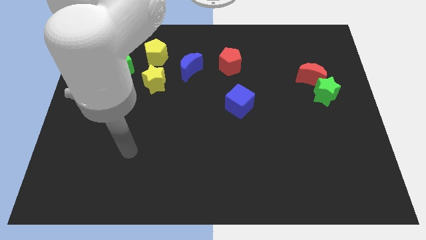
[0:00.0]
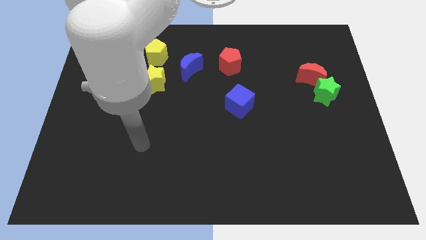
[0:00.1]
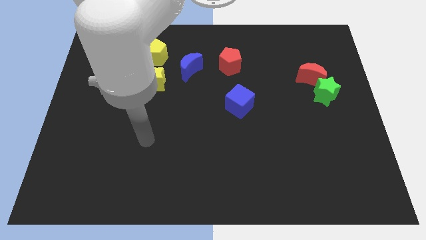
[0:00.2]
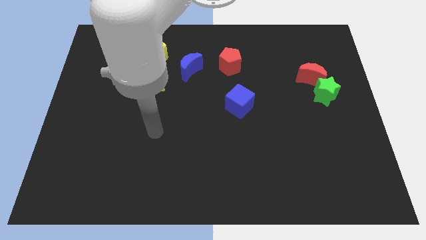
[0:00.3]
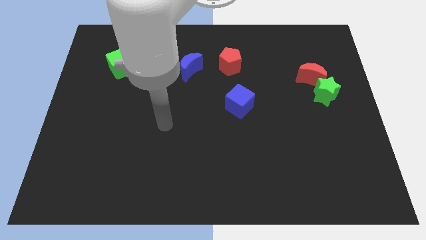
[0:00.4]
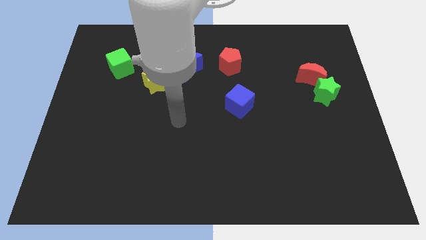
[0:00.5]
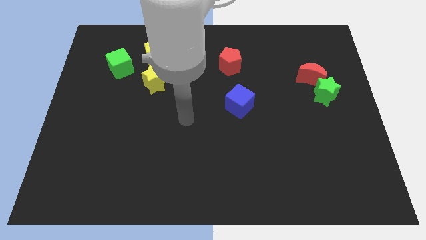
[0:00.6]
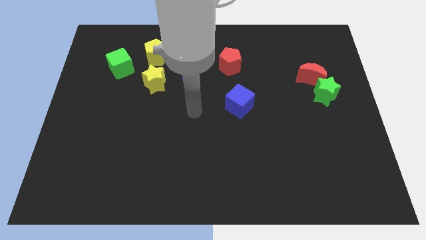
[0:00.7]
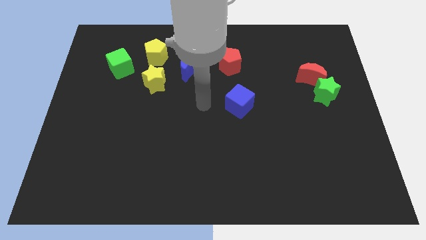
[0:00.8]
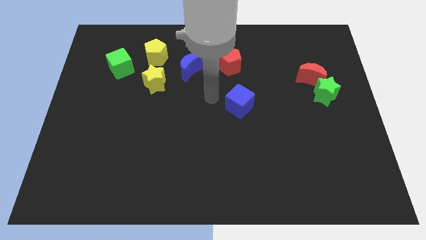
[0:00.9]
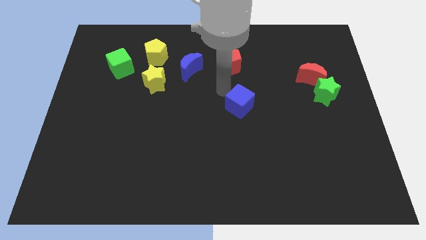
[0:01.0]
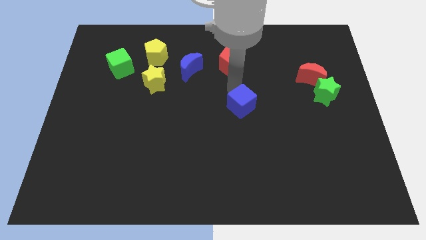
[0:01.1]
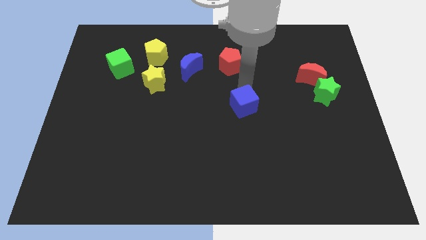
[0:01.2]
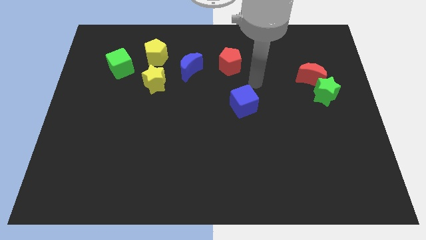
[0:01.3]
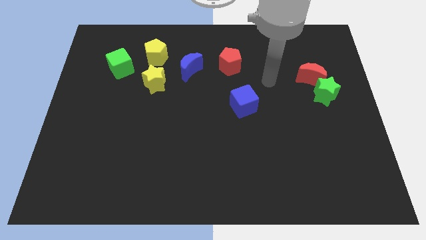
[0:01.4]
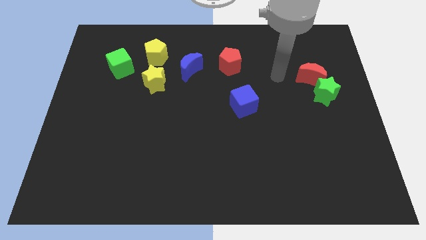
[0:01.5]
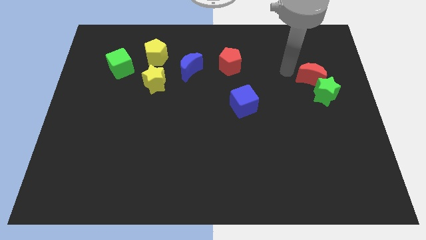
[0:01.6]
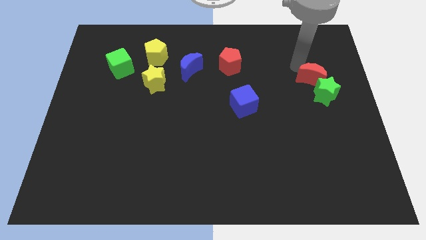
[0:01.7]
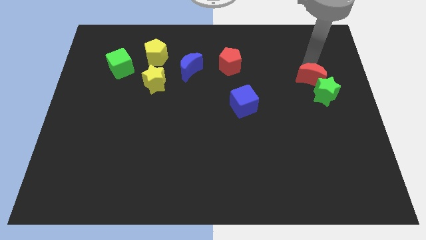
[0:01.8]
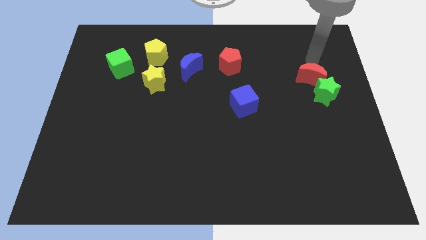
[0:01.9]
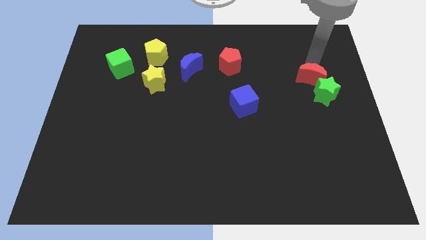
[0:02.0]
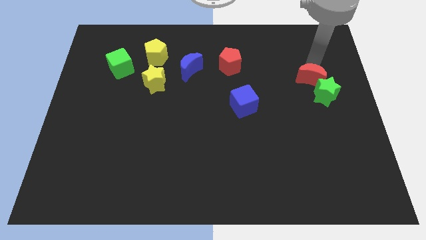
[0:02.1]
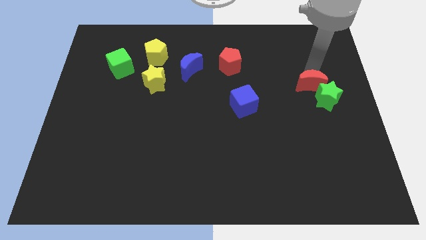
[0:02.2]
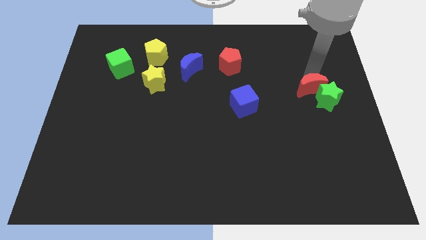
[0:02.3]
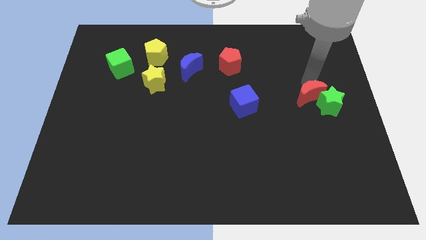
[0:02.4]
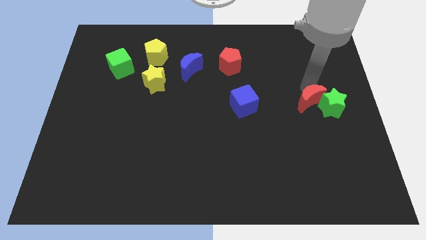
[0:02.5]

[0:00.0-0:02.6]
push the red moon somewhat downwards

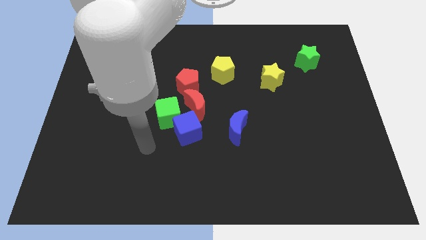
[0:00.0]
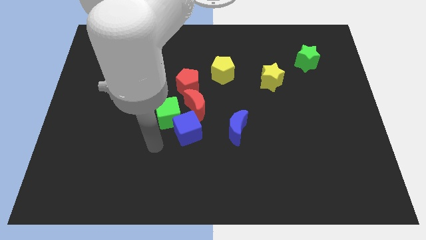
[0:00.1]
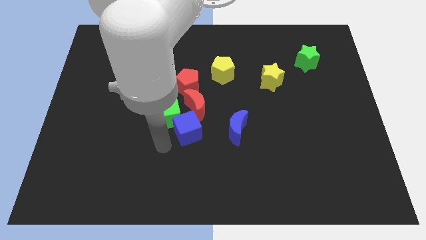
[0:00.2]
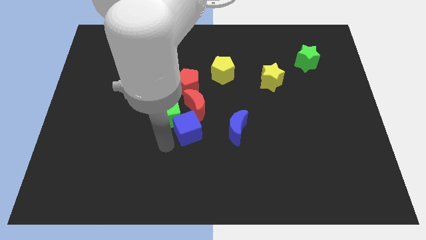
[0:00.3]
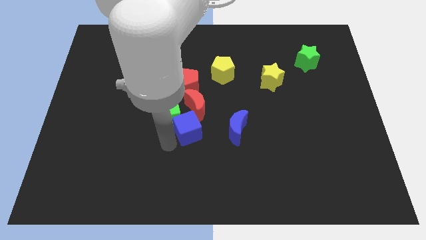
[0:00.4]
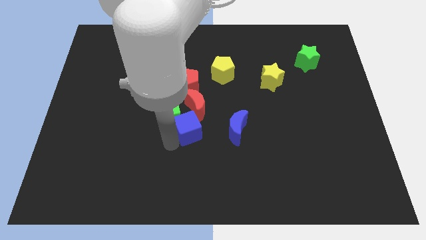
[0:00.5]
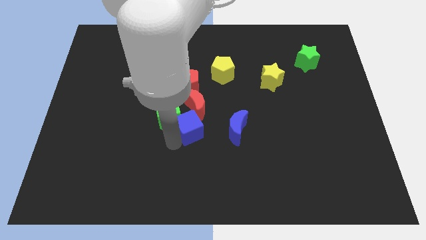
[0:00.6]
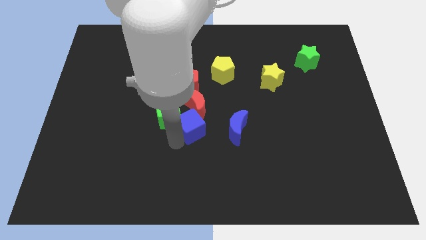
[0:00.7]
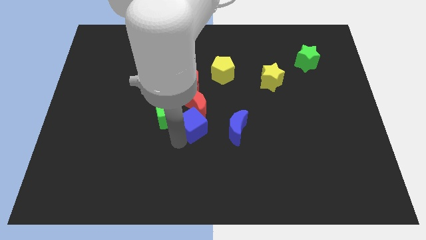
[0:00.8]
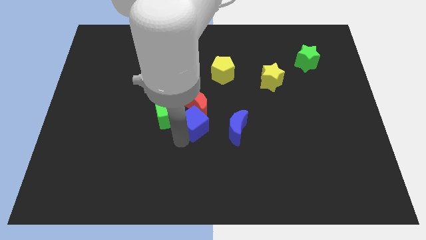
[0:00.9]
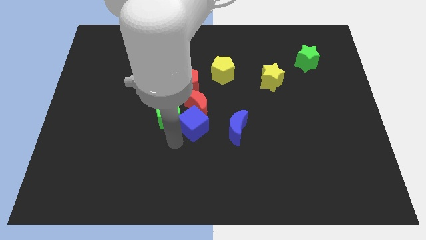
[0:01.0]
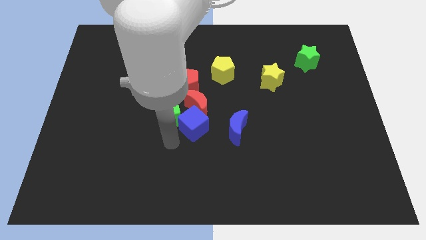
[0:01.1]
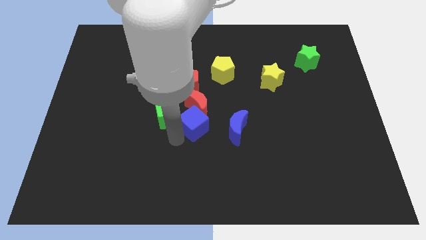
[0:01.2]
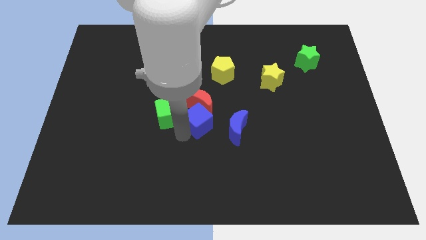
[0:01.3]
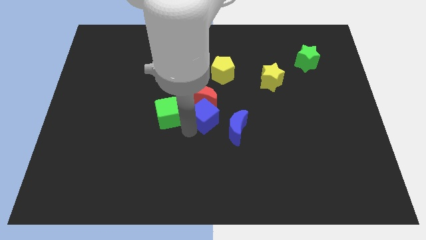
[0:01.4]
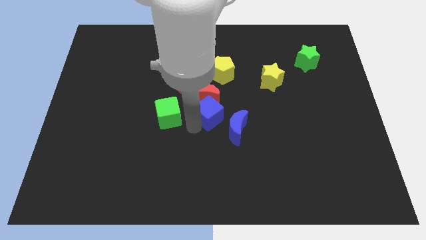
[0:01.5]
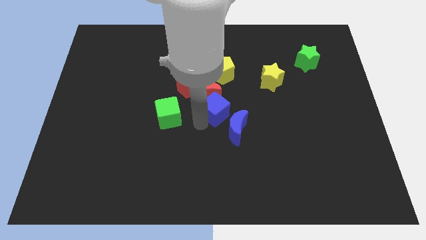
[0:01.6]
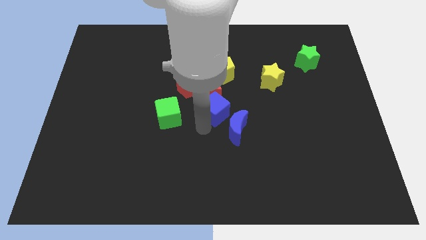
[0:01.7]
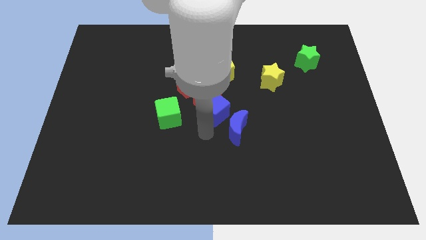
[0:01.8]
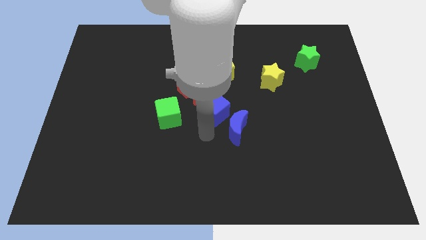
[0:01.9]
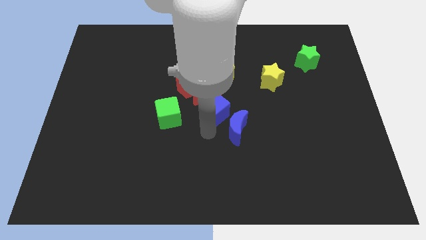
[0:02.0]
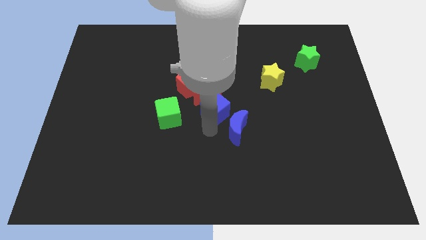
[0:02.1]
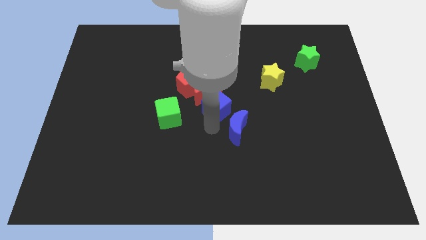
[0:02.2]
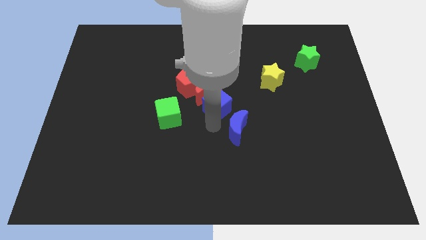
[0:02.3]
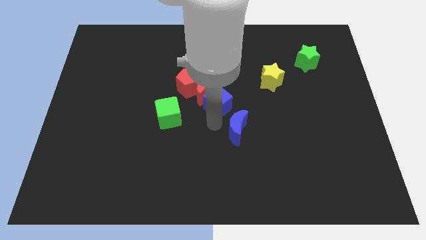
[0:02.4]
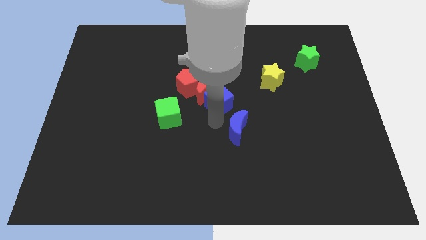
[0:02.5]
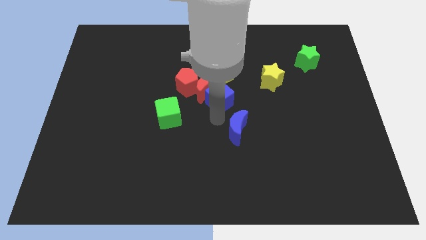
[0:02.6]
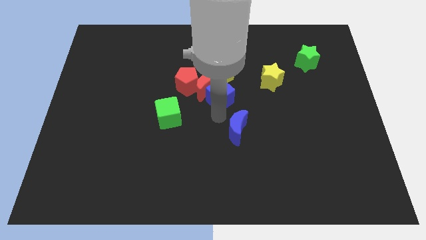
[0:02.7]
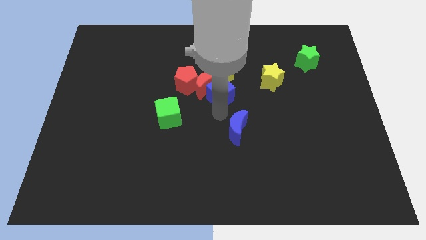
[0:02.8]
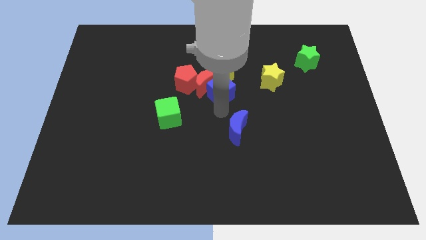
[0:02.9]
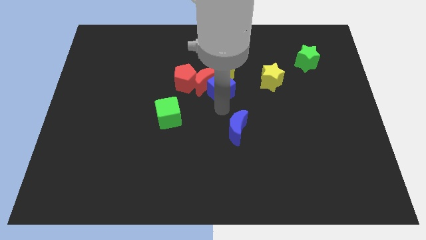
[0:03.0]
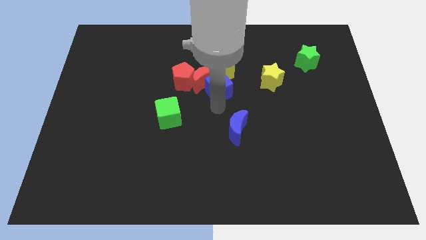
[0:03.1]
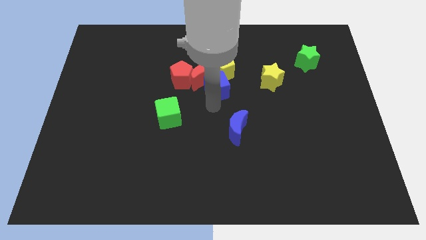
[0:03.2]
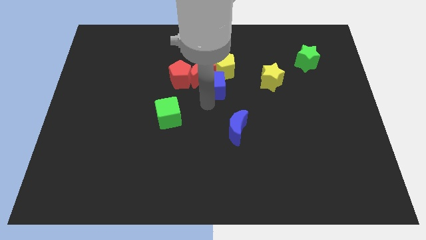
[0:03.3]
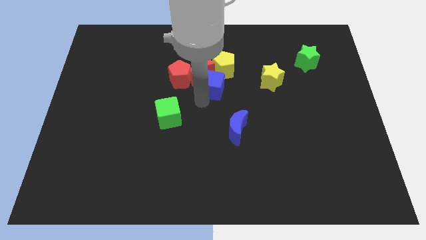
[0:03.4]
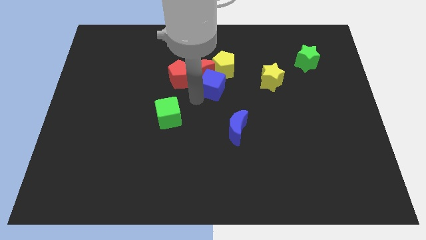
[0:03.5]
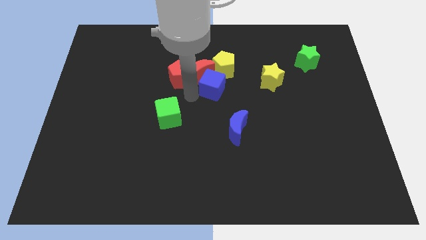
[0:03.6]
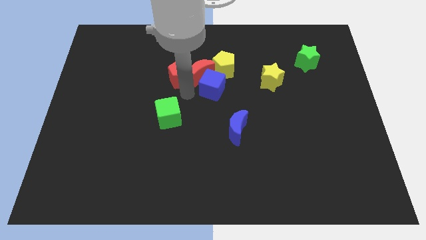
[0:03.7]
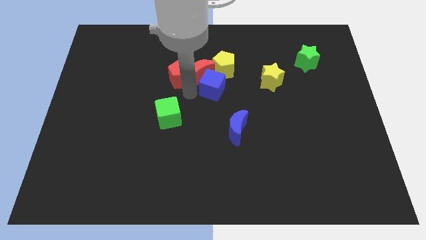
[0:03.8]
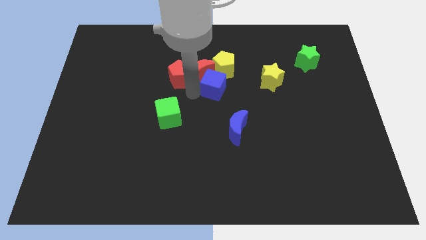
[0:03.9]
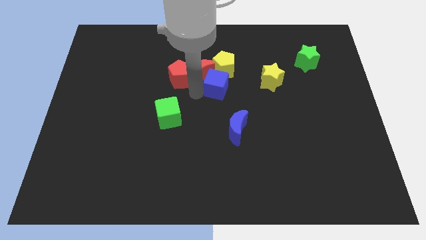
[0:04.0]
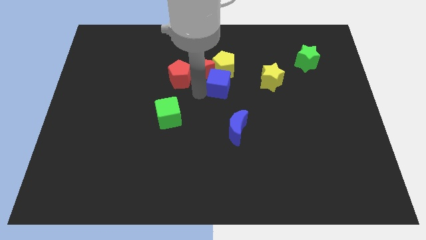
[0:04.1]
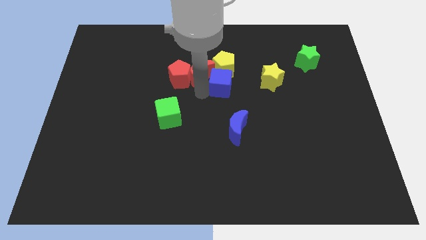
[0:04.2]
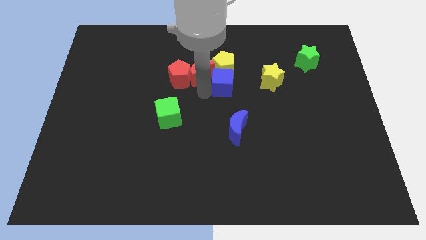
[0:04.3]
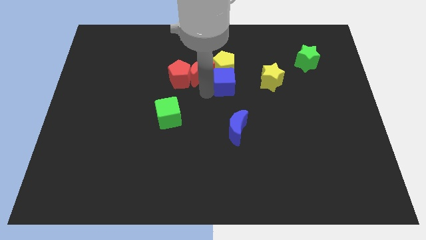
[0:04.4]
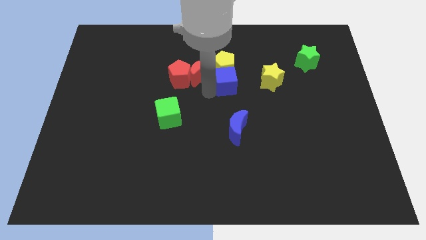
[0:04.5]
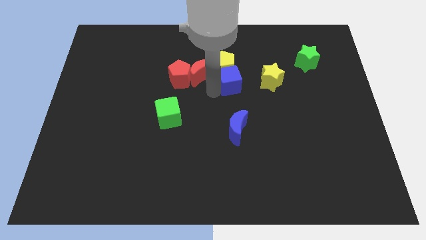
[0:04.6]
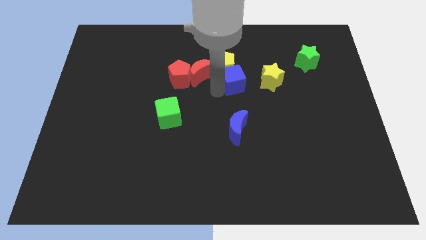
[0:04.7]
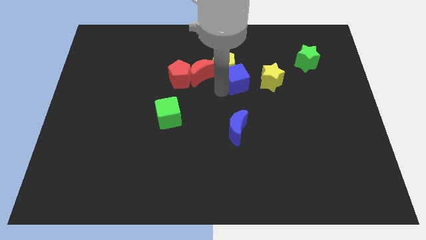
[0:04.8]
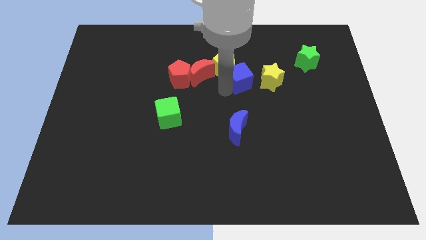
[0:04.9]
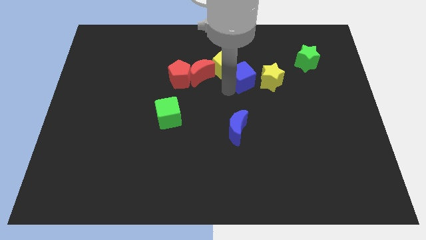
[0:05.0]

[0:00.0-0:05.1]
move the blue cube up and to the right

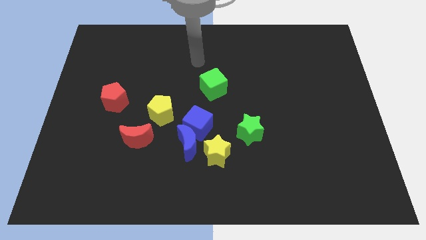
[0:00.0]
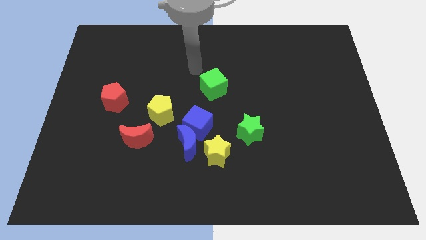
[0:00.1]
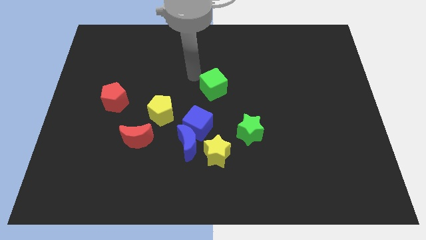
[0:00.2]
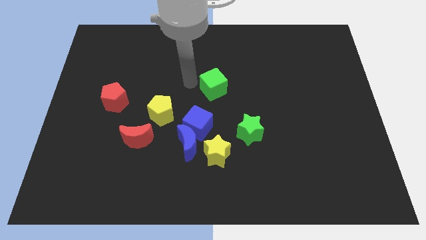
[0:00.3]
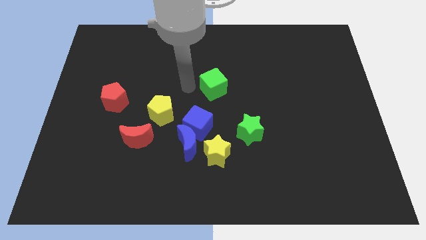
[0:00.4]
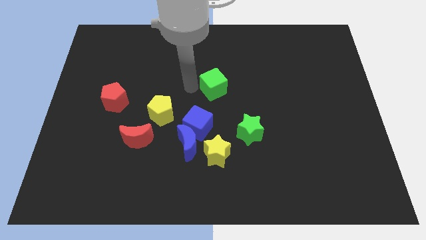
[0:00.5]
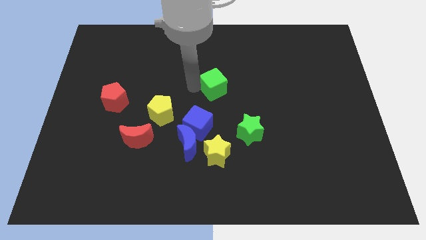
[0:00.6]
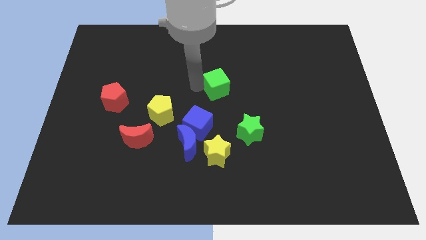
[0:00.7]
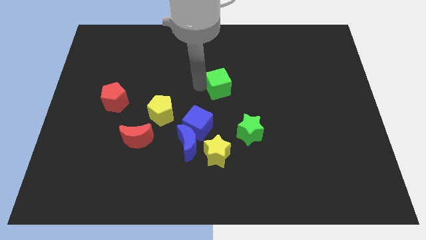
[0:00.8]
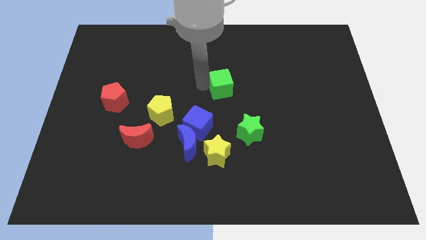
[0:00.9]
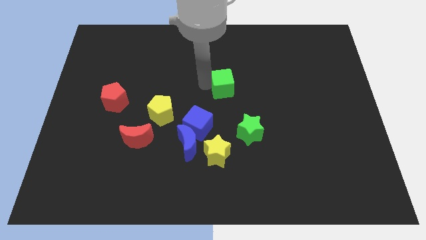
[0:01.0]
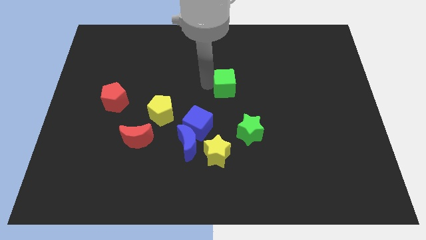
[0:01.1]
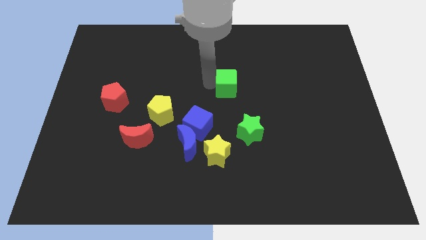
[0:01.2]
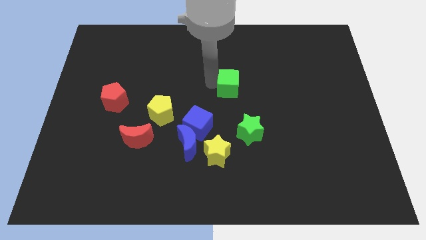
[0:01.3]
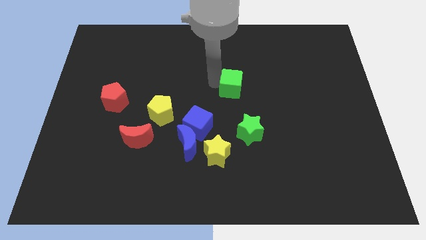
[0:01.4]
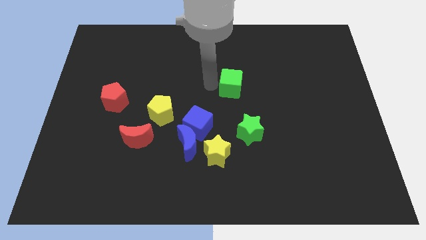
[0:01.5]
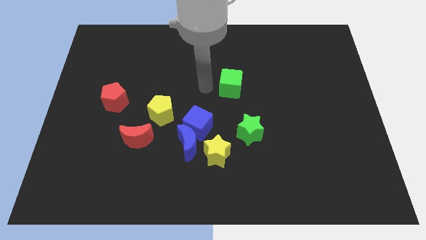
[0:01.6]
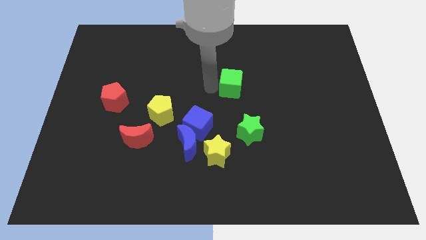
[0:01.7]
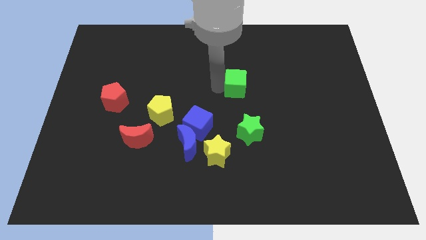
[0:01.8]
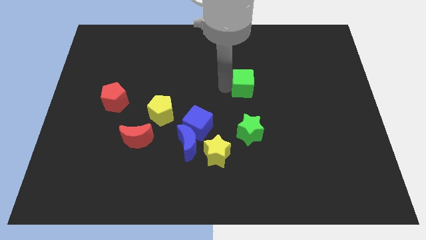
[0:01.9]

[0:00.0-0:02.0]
push the green cube slightly right
